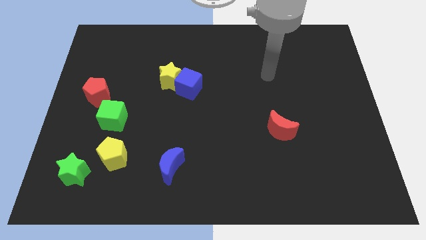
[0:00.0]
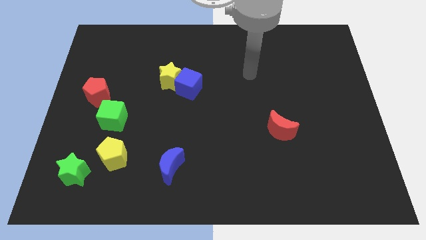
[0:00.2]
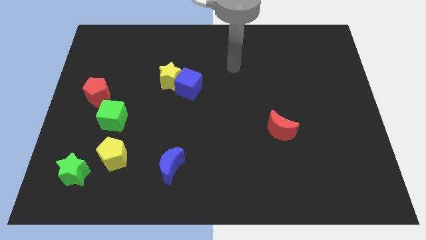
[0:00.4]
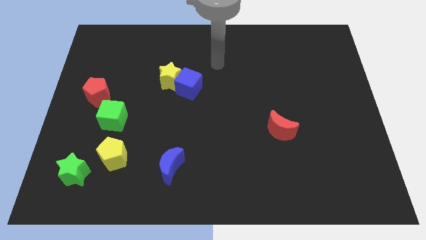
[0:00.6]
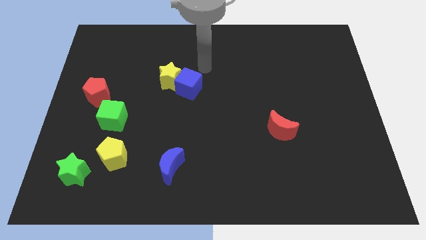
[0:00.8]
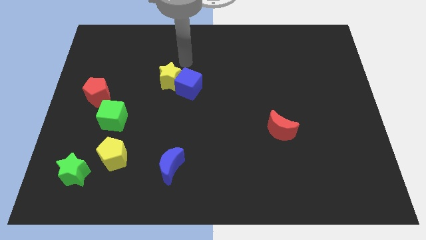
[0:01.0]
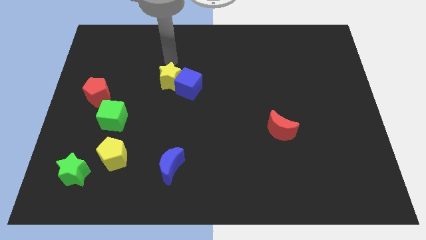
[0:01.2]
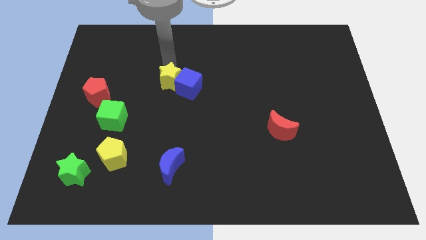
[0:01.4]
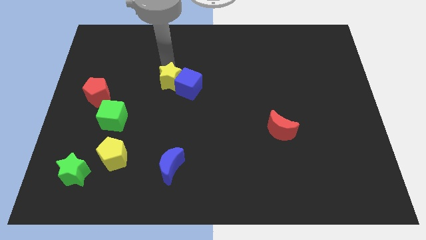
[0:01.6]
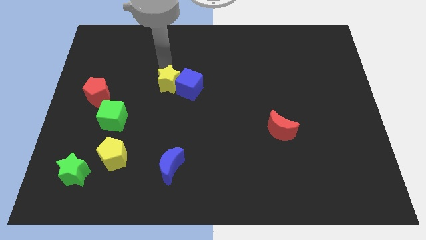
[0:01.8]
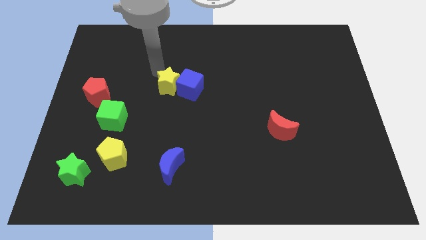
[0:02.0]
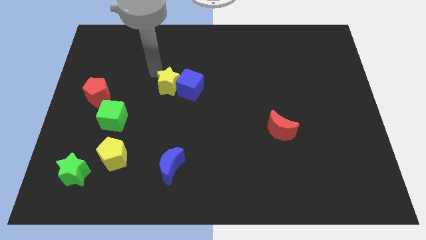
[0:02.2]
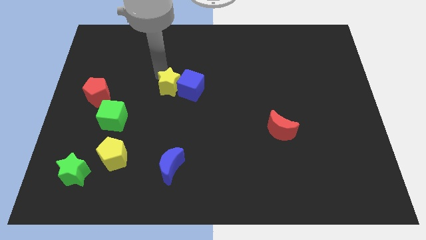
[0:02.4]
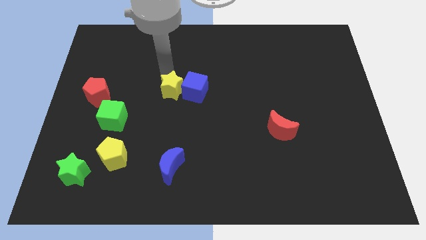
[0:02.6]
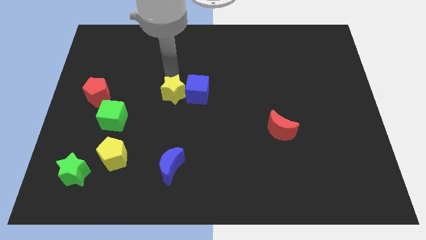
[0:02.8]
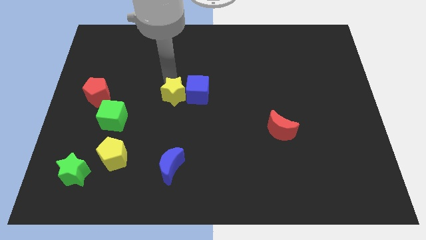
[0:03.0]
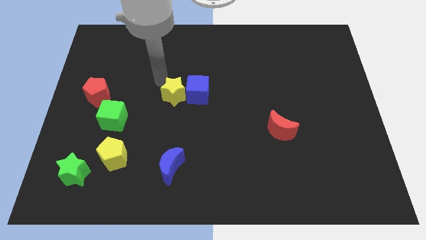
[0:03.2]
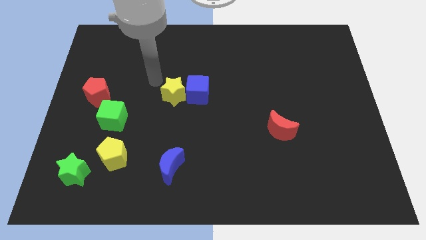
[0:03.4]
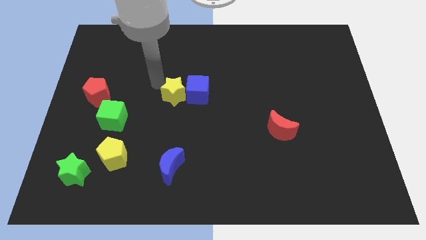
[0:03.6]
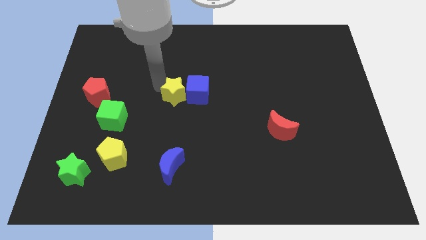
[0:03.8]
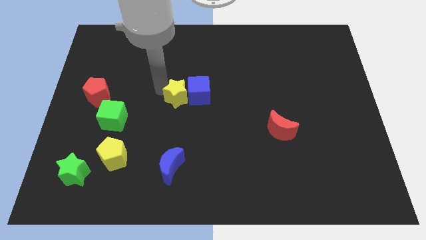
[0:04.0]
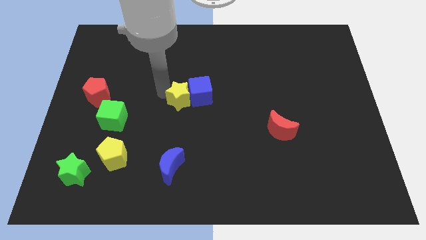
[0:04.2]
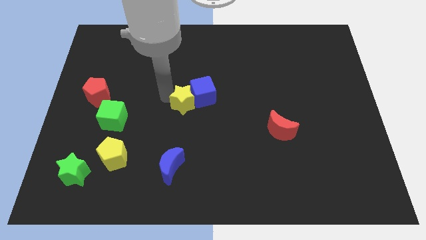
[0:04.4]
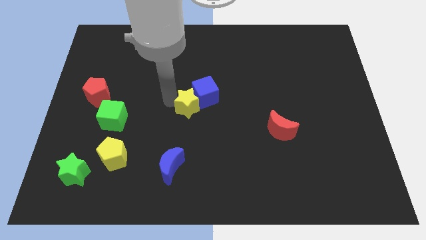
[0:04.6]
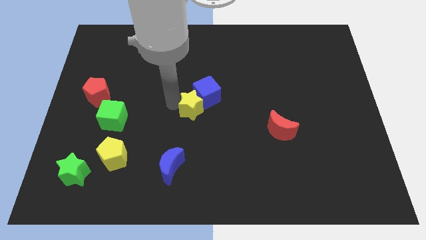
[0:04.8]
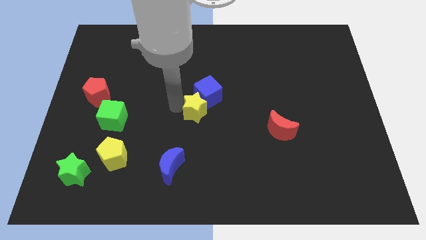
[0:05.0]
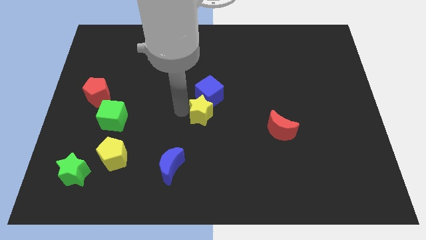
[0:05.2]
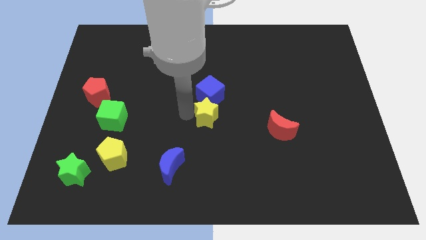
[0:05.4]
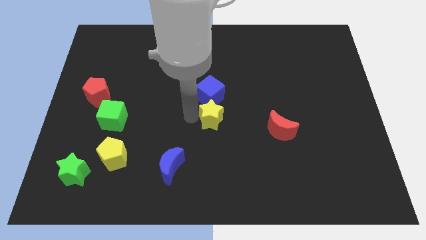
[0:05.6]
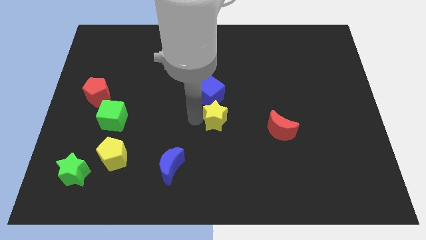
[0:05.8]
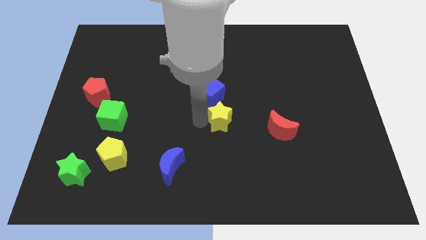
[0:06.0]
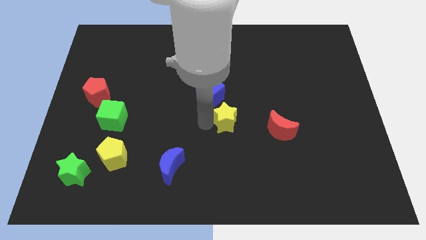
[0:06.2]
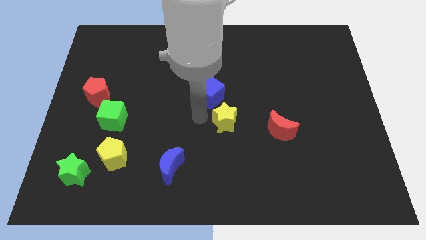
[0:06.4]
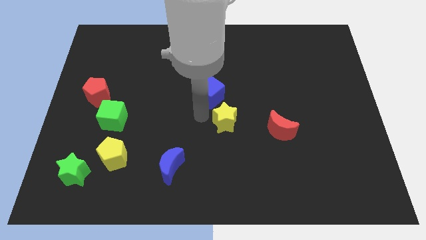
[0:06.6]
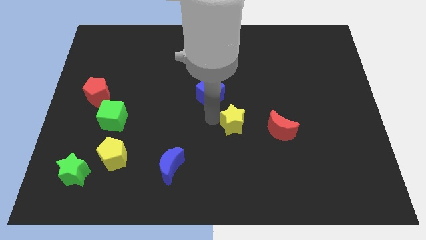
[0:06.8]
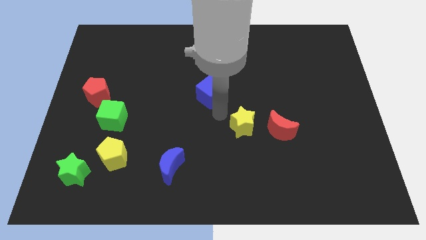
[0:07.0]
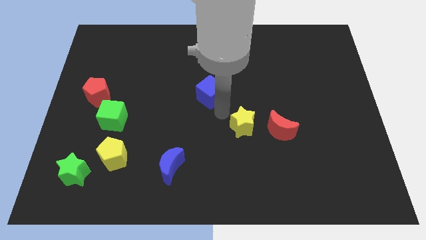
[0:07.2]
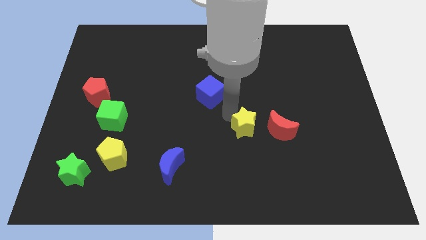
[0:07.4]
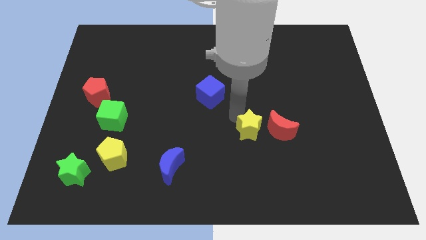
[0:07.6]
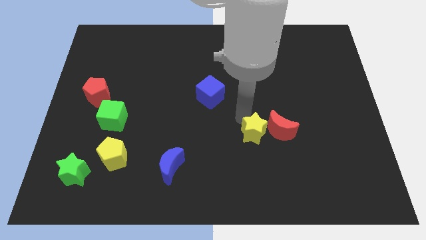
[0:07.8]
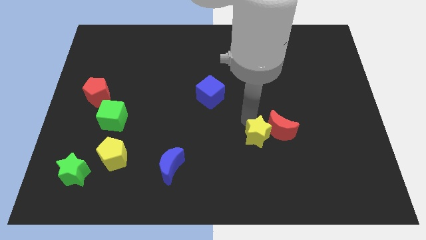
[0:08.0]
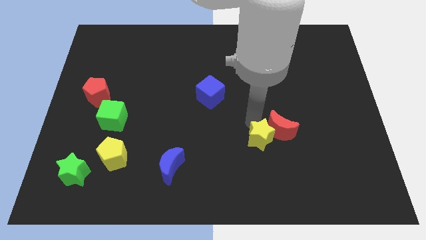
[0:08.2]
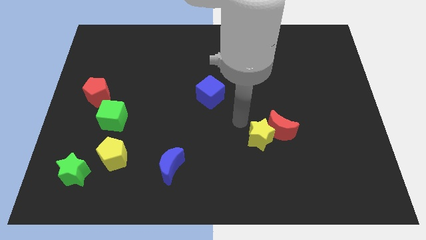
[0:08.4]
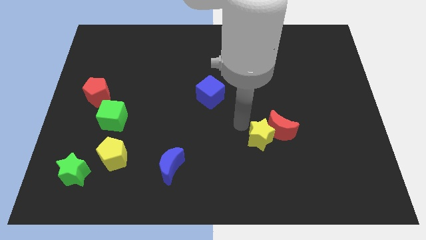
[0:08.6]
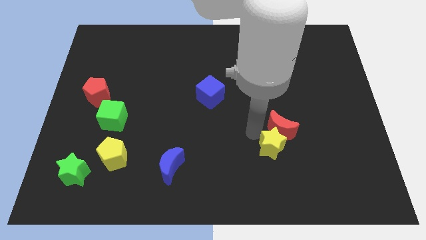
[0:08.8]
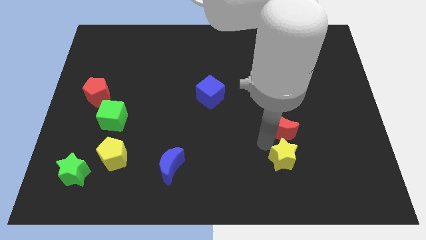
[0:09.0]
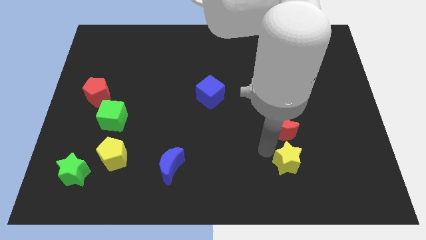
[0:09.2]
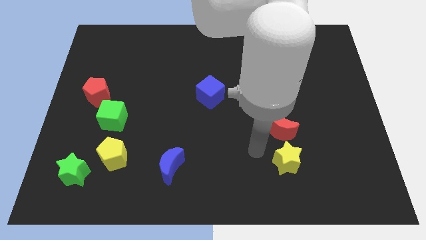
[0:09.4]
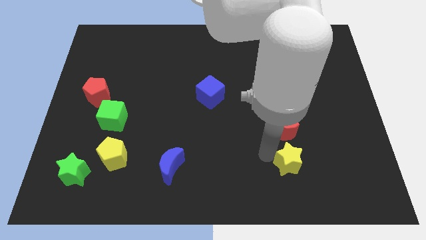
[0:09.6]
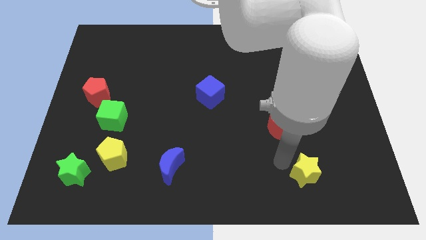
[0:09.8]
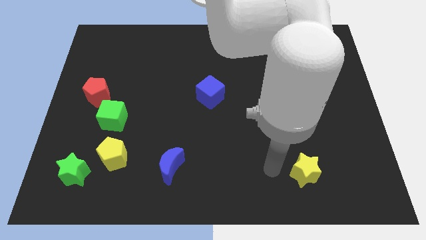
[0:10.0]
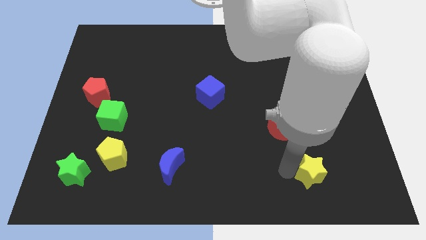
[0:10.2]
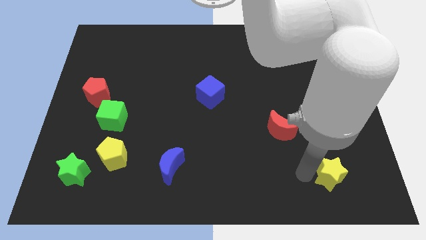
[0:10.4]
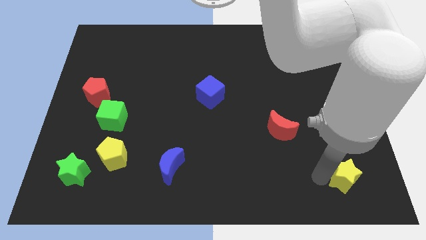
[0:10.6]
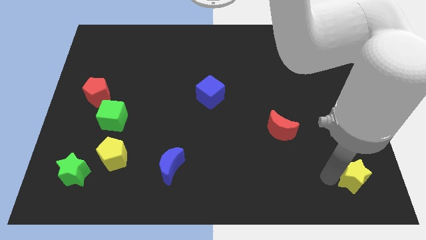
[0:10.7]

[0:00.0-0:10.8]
move the yellow star to the bottom right corner
